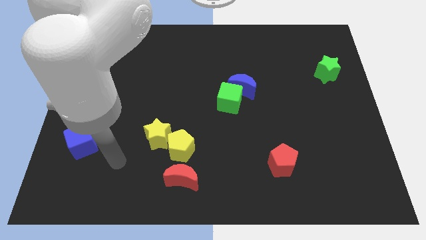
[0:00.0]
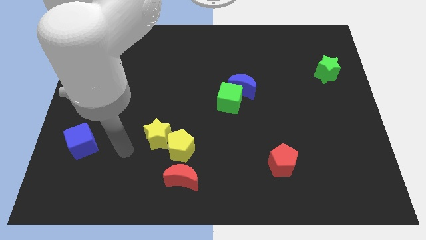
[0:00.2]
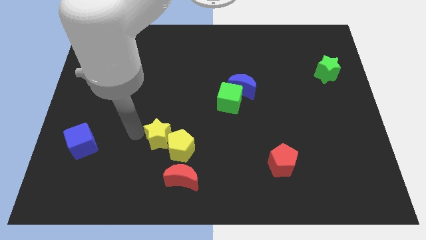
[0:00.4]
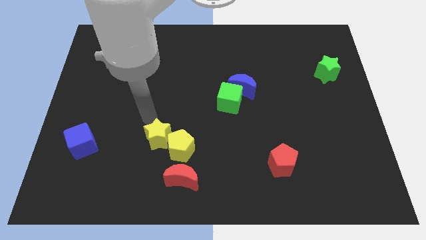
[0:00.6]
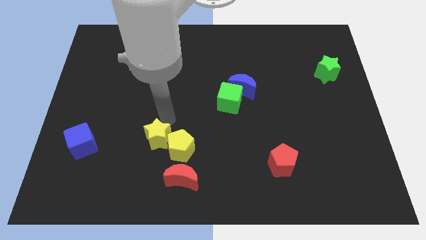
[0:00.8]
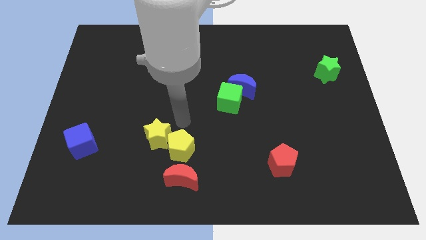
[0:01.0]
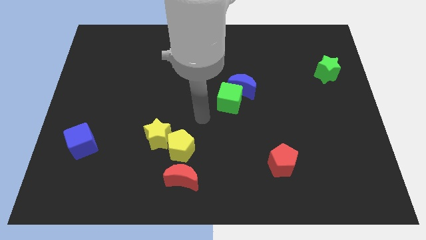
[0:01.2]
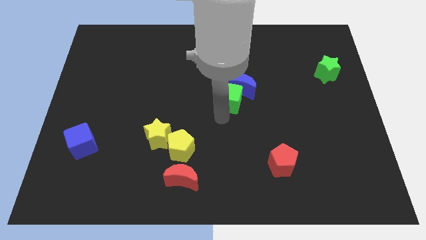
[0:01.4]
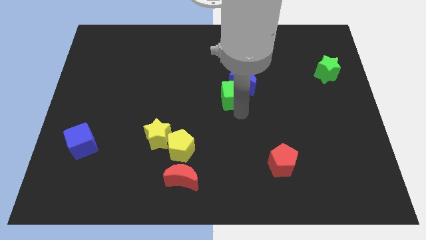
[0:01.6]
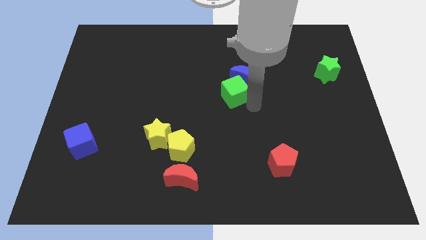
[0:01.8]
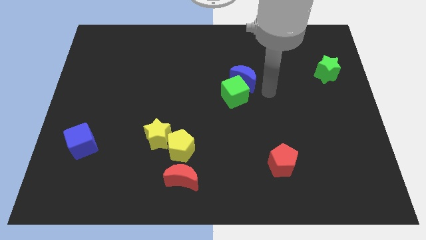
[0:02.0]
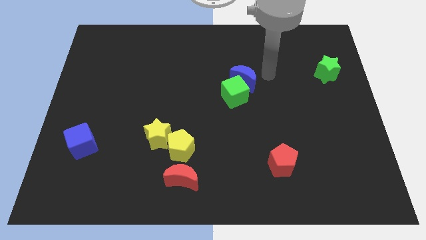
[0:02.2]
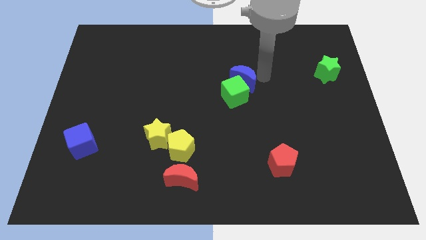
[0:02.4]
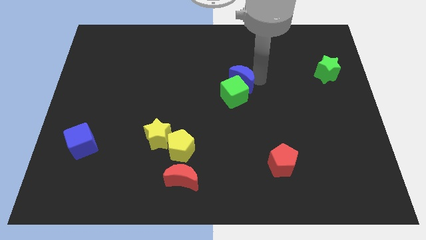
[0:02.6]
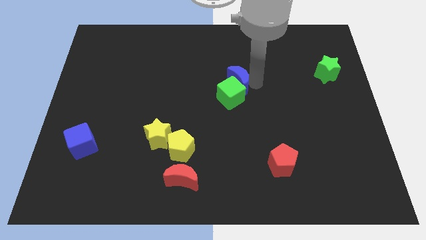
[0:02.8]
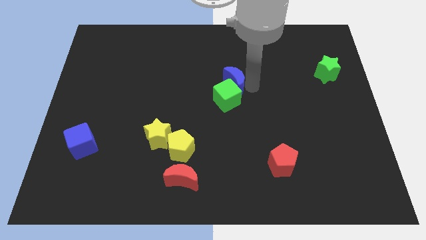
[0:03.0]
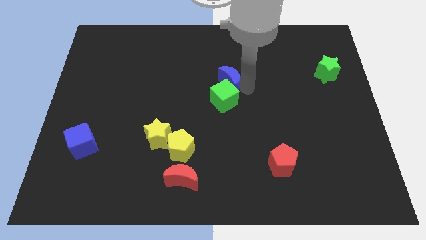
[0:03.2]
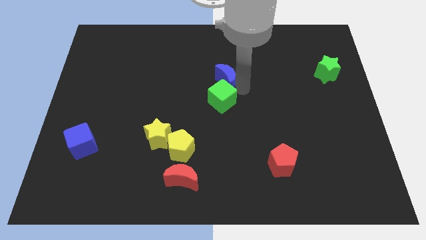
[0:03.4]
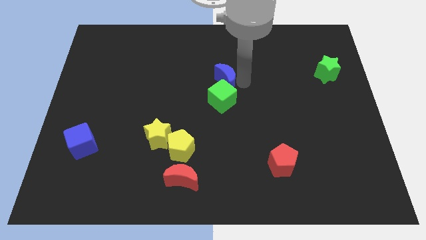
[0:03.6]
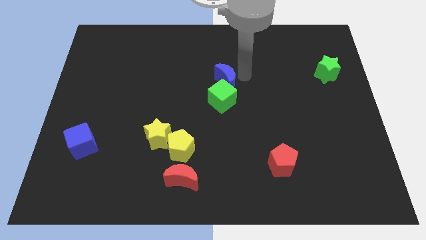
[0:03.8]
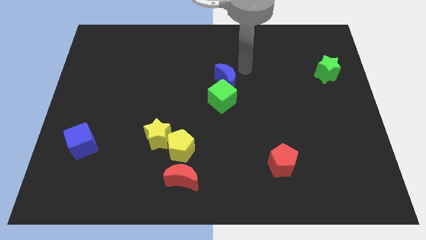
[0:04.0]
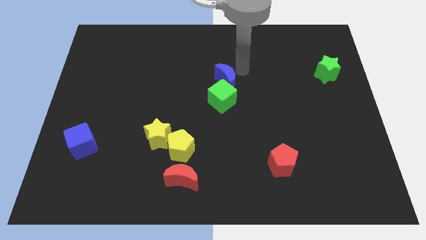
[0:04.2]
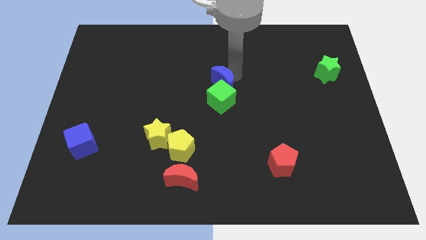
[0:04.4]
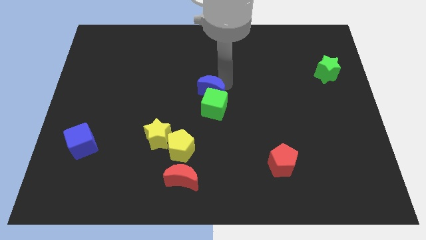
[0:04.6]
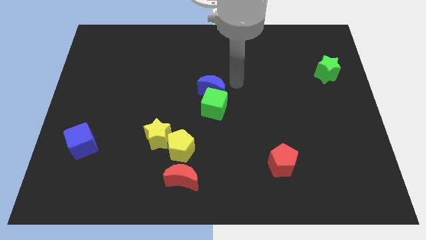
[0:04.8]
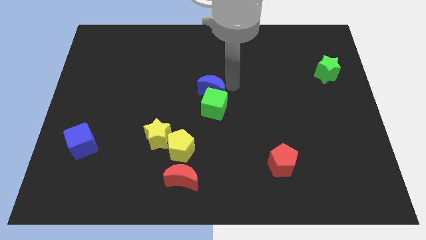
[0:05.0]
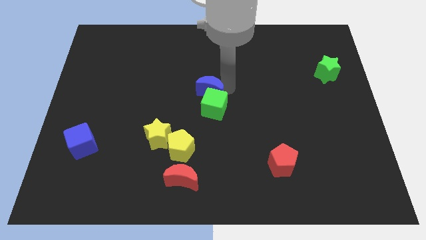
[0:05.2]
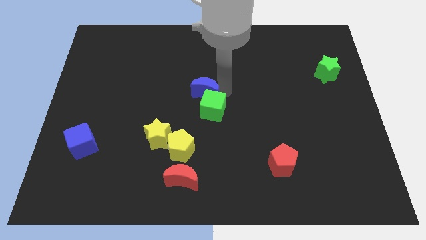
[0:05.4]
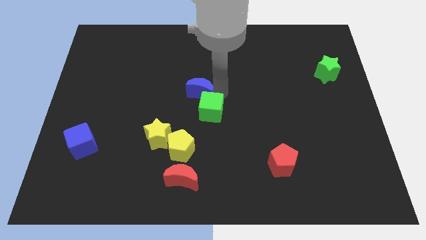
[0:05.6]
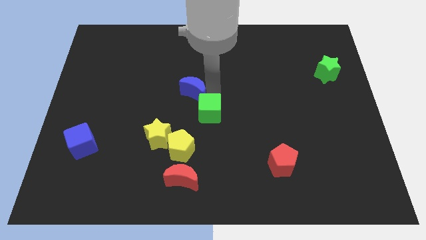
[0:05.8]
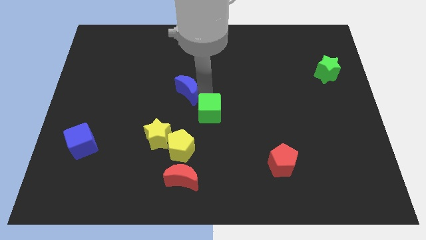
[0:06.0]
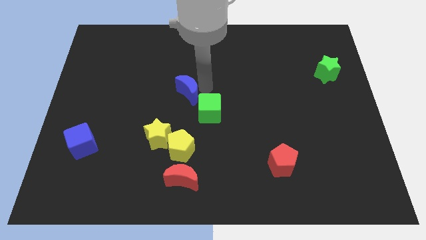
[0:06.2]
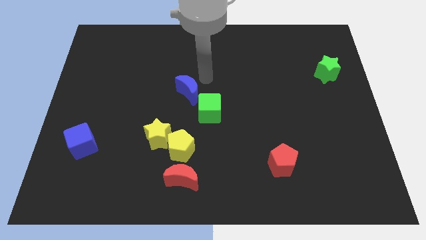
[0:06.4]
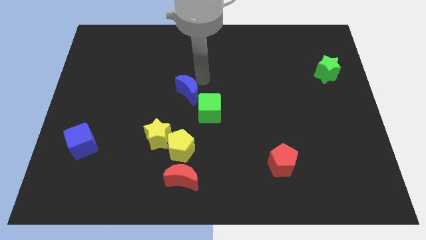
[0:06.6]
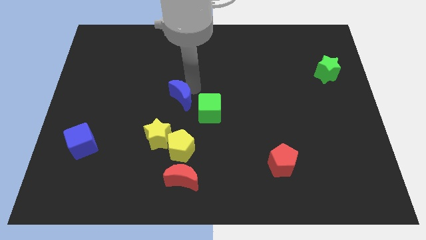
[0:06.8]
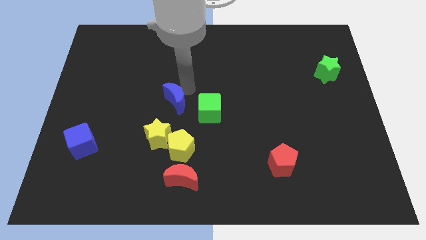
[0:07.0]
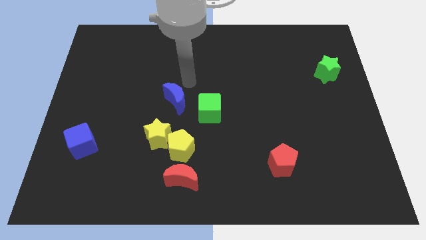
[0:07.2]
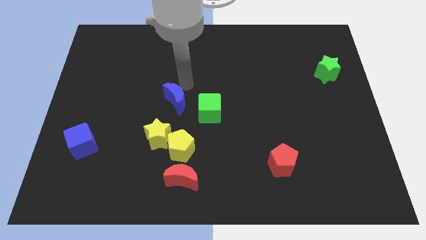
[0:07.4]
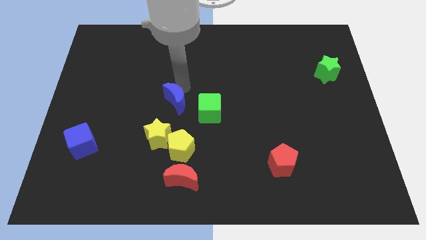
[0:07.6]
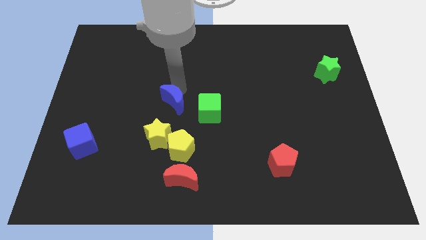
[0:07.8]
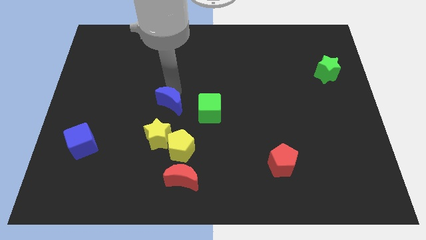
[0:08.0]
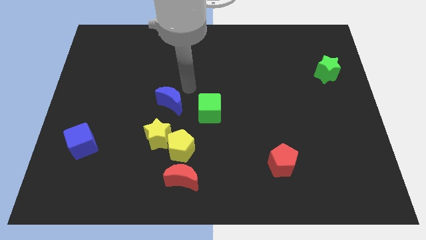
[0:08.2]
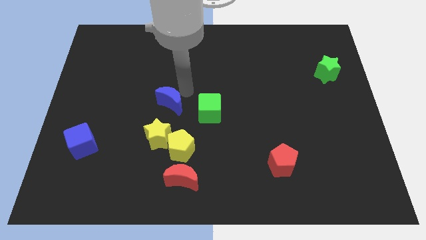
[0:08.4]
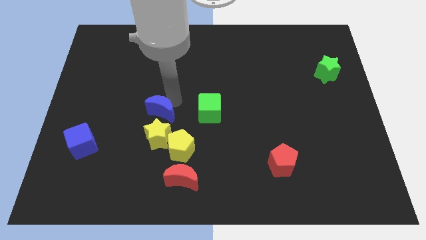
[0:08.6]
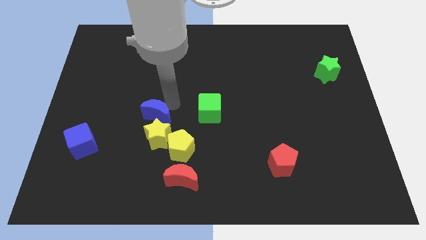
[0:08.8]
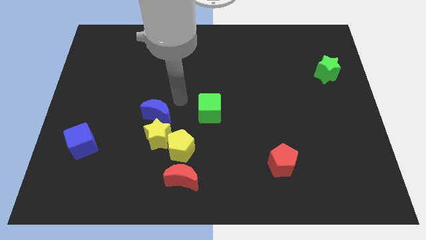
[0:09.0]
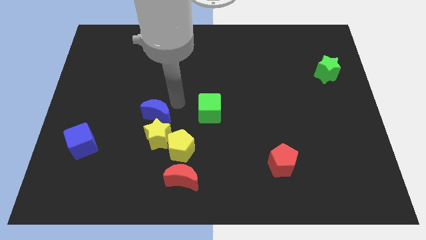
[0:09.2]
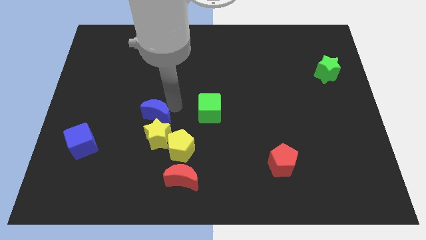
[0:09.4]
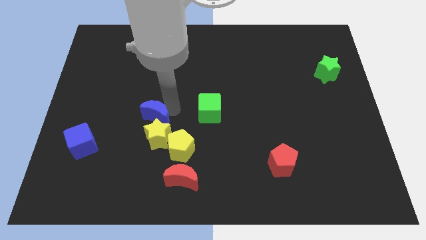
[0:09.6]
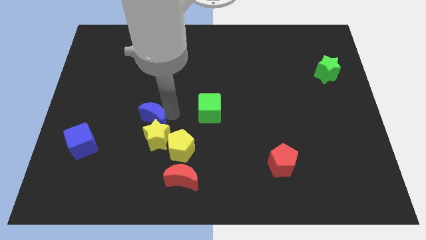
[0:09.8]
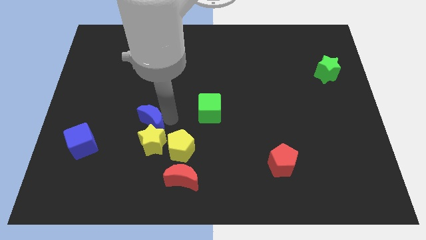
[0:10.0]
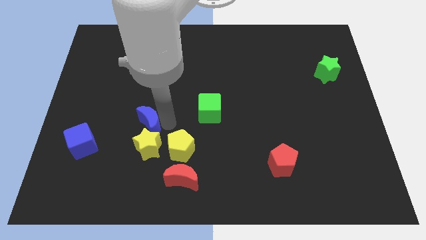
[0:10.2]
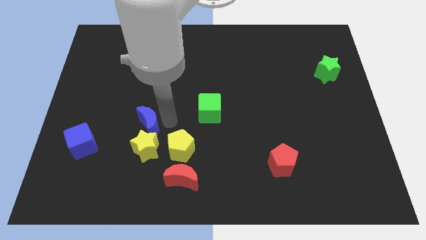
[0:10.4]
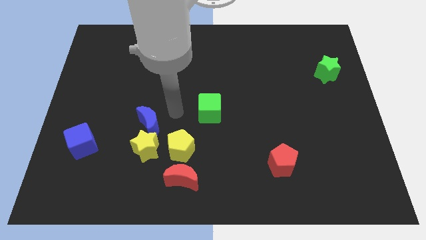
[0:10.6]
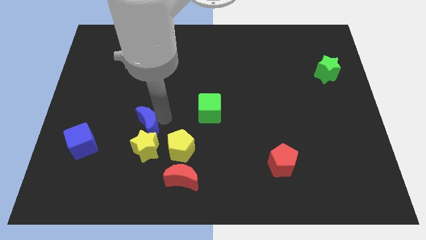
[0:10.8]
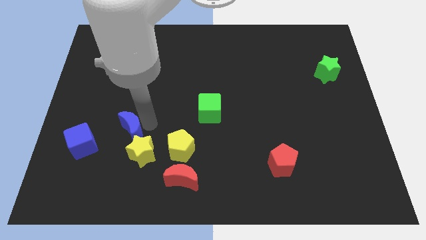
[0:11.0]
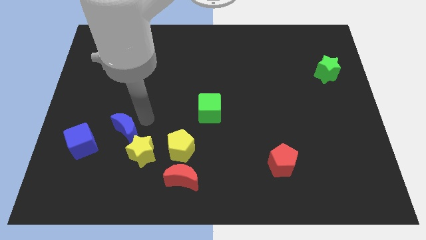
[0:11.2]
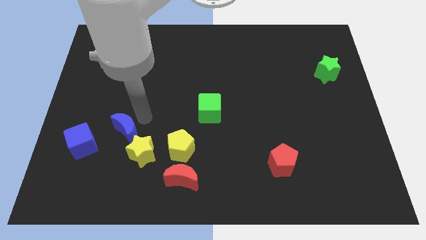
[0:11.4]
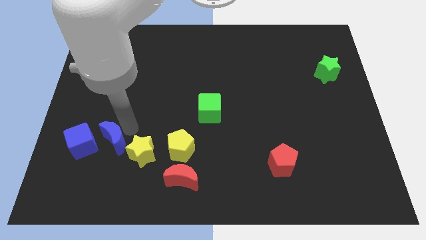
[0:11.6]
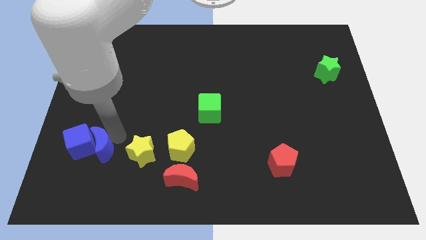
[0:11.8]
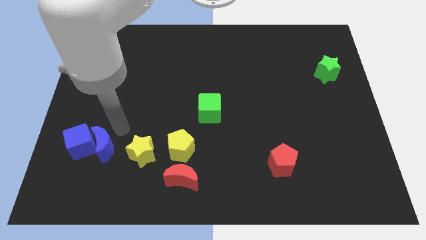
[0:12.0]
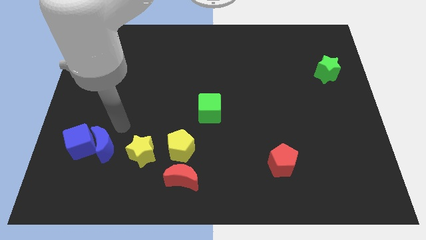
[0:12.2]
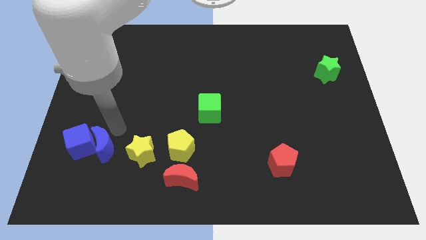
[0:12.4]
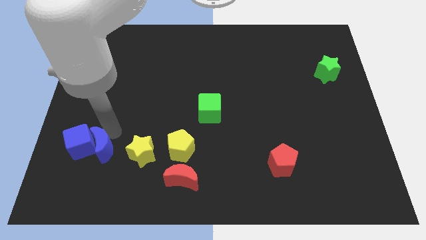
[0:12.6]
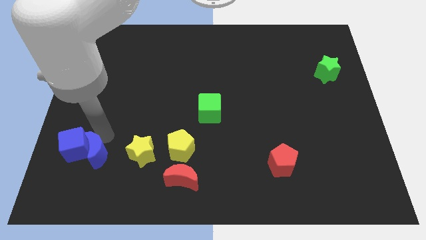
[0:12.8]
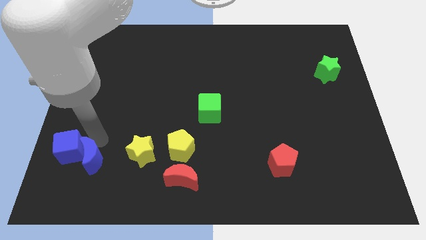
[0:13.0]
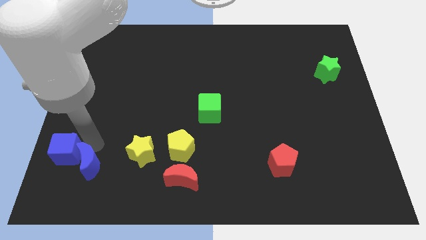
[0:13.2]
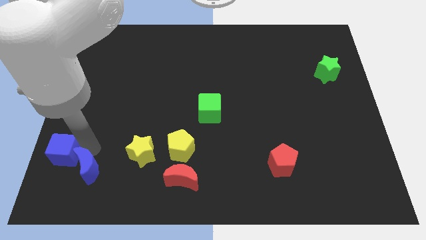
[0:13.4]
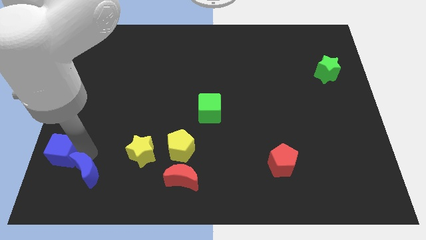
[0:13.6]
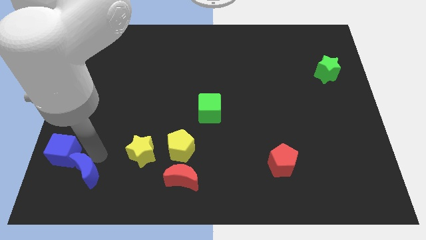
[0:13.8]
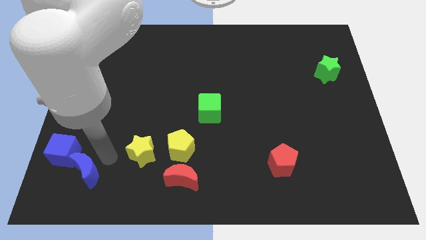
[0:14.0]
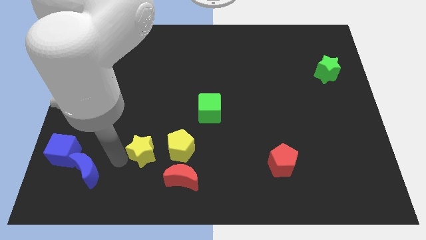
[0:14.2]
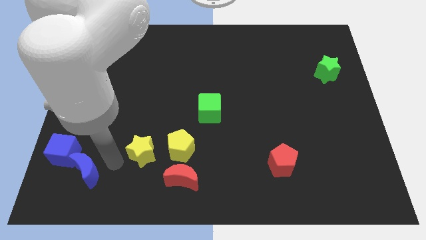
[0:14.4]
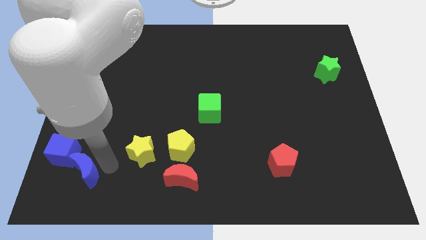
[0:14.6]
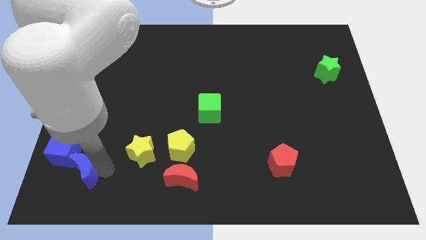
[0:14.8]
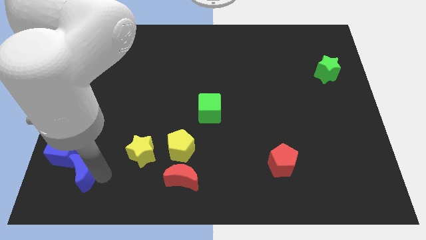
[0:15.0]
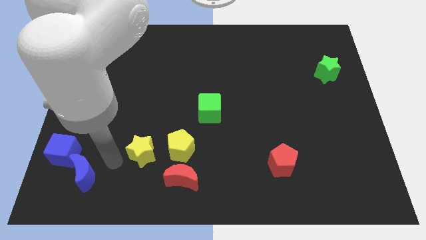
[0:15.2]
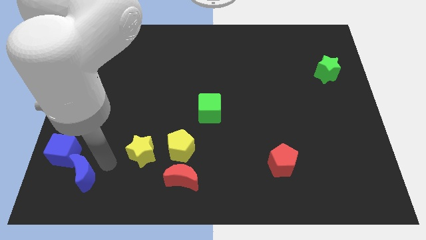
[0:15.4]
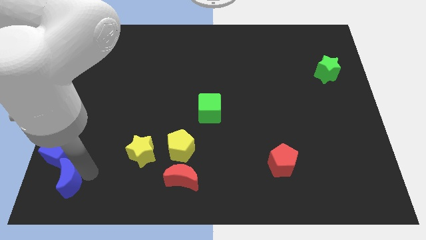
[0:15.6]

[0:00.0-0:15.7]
slide the blue moon to the lower left corner
